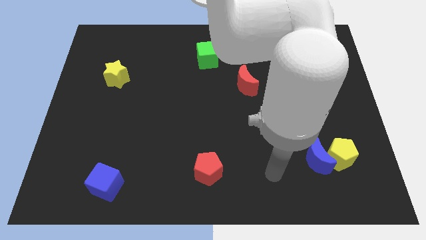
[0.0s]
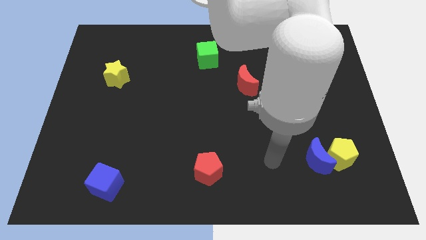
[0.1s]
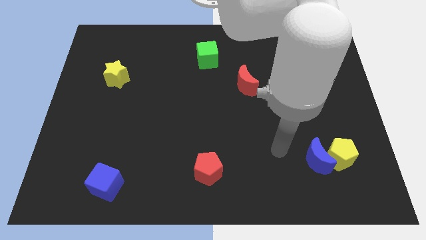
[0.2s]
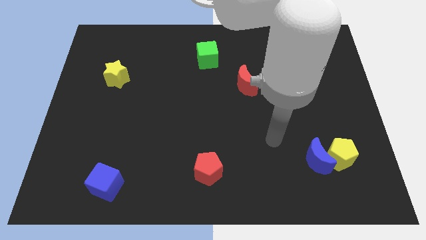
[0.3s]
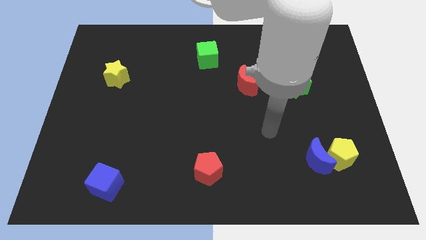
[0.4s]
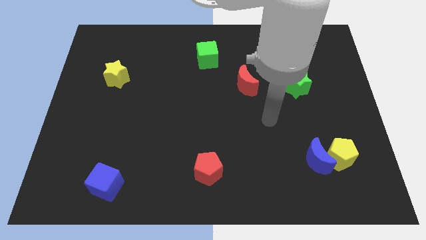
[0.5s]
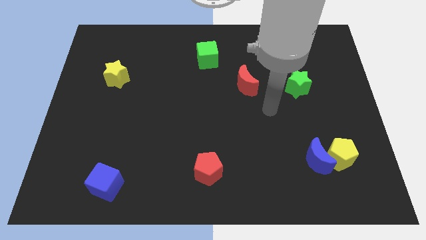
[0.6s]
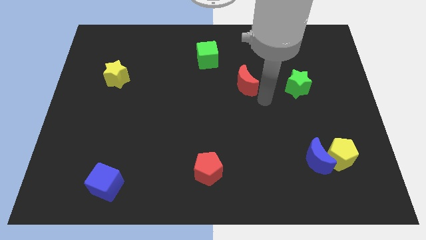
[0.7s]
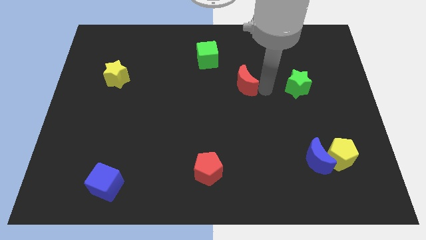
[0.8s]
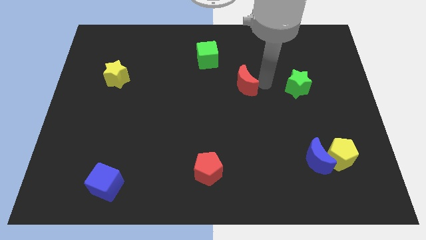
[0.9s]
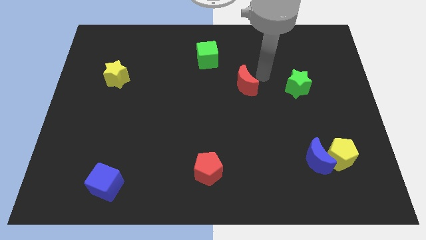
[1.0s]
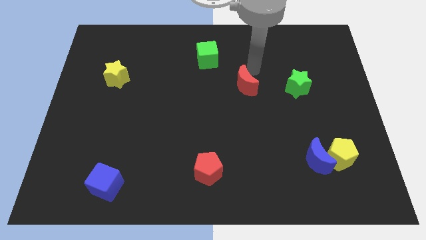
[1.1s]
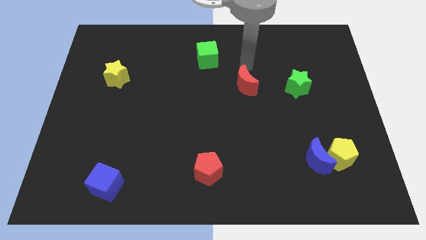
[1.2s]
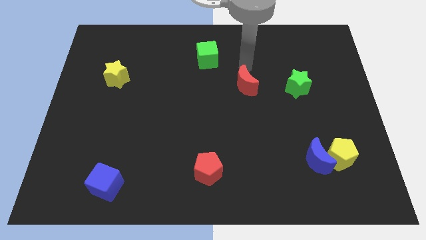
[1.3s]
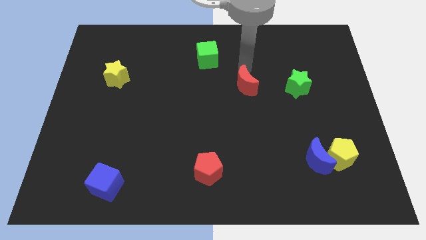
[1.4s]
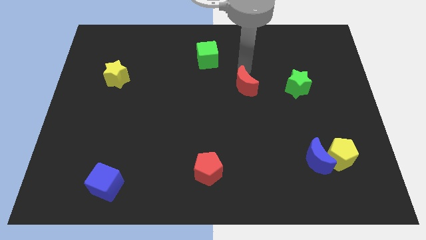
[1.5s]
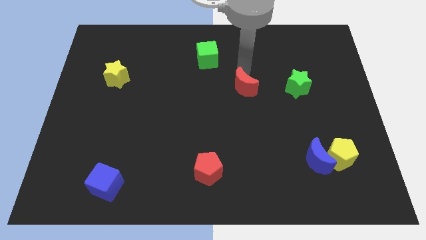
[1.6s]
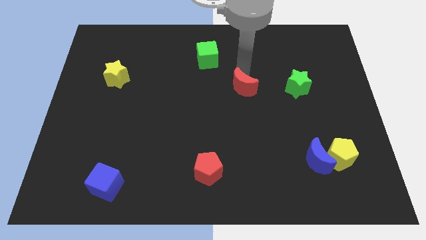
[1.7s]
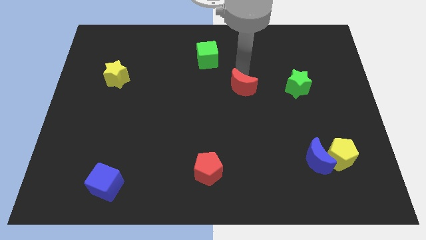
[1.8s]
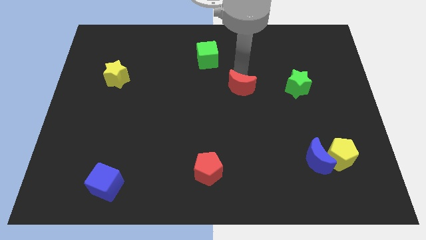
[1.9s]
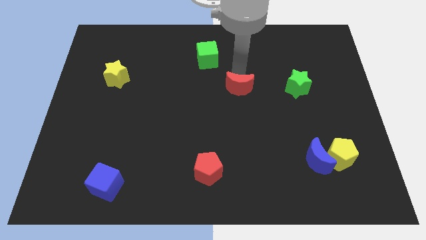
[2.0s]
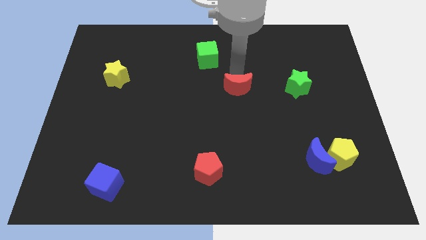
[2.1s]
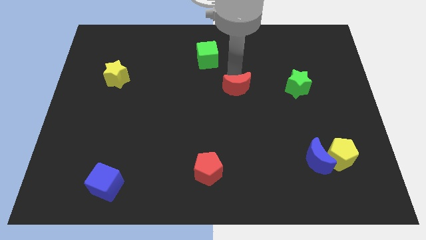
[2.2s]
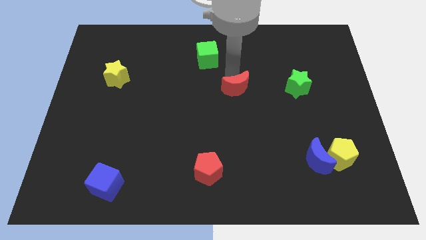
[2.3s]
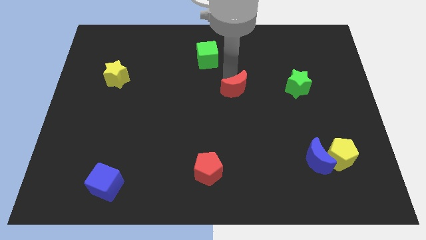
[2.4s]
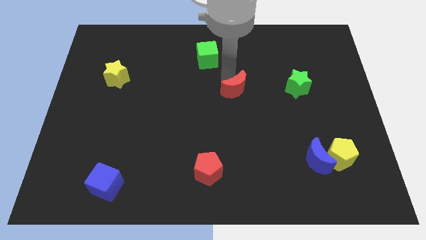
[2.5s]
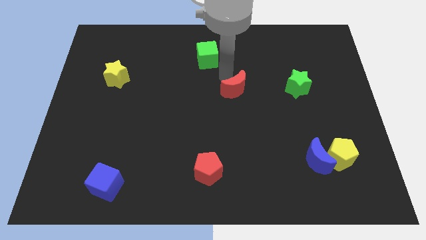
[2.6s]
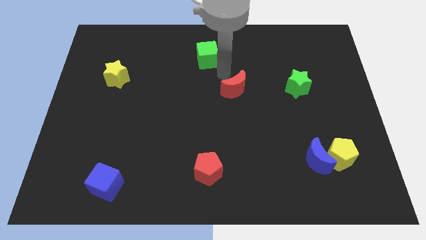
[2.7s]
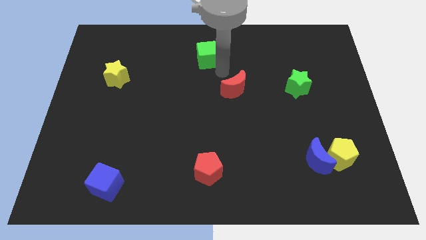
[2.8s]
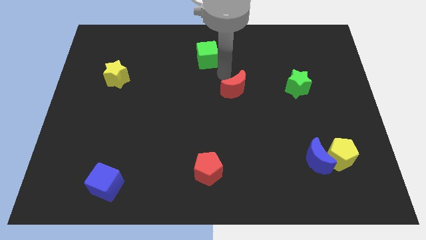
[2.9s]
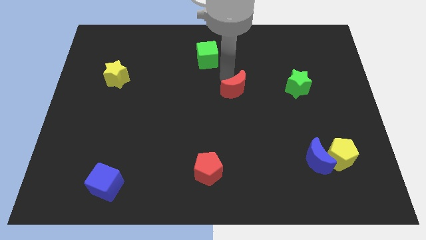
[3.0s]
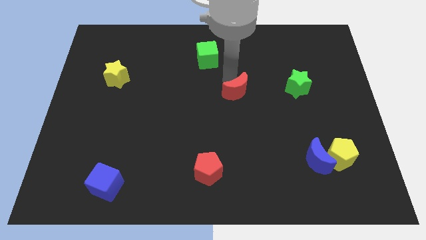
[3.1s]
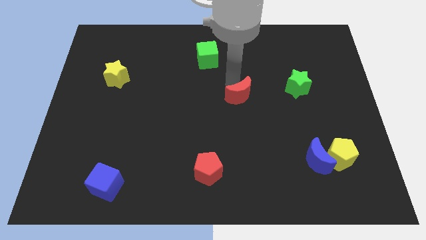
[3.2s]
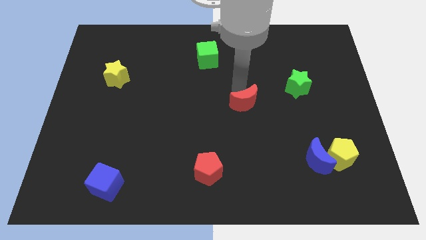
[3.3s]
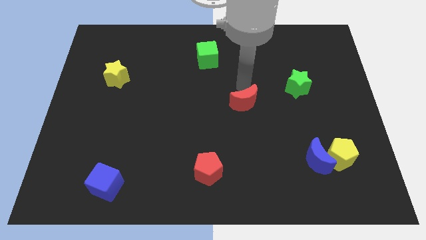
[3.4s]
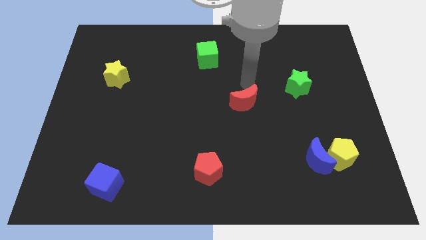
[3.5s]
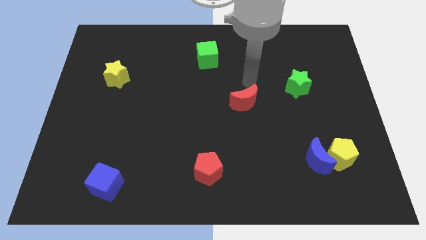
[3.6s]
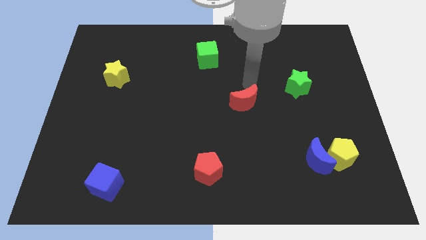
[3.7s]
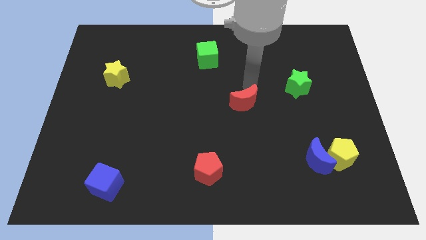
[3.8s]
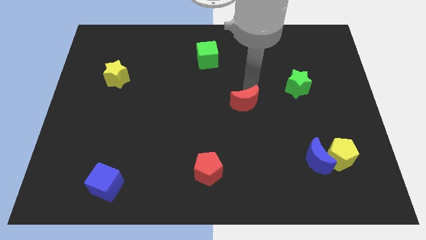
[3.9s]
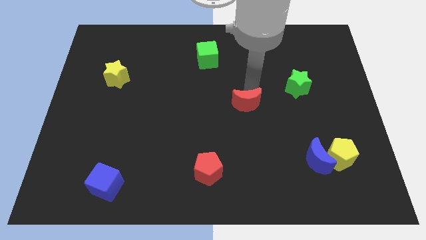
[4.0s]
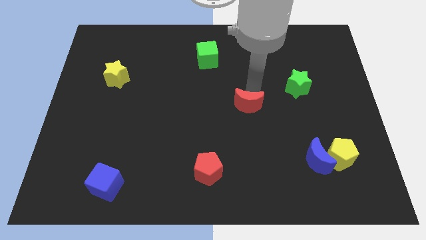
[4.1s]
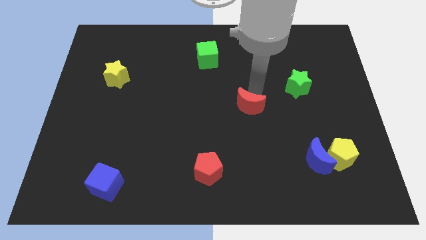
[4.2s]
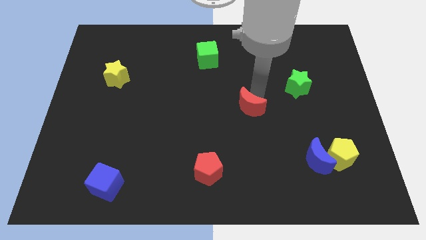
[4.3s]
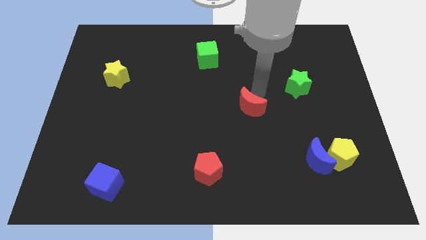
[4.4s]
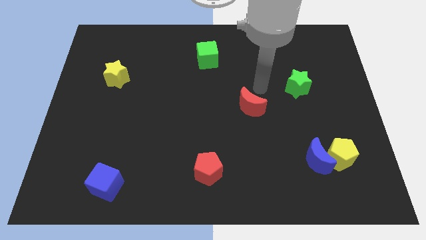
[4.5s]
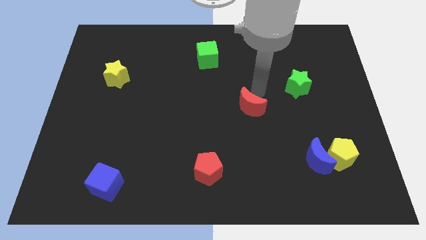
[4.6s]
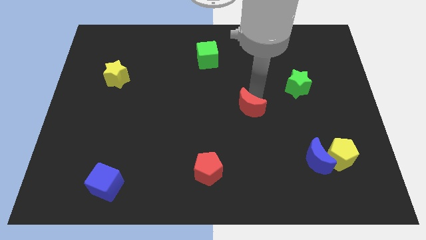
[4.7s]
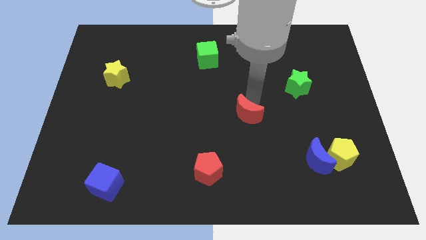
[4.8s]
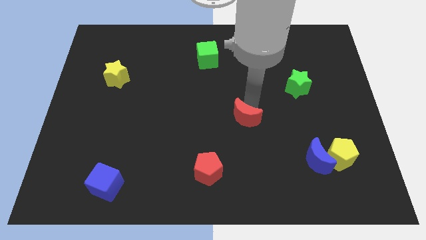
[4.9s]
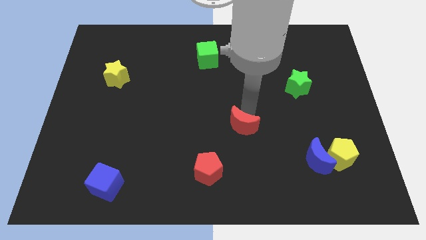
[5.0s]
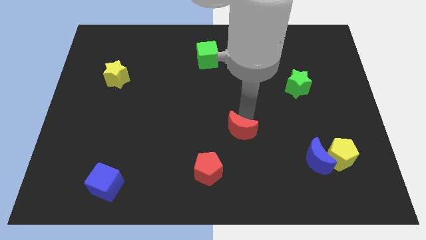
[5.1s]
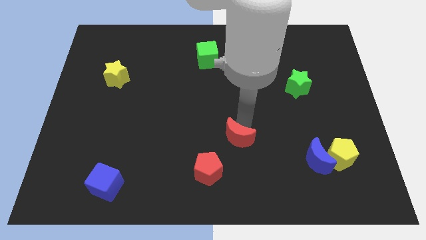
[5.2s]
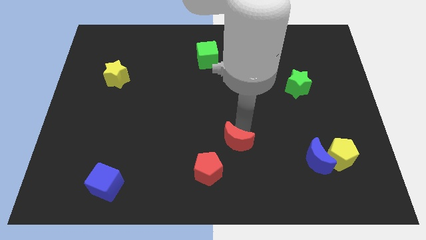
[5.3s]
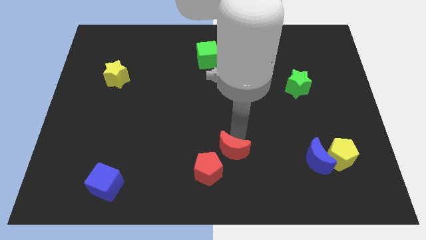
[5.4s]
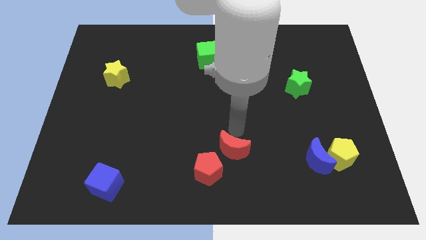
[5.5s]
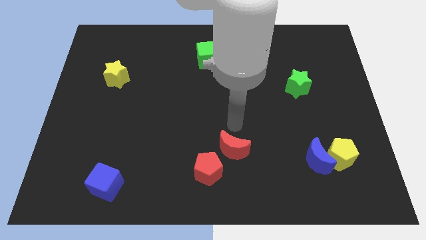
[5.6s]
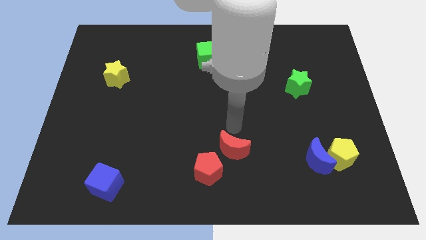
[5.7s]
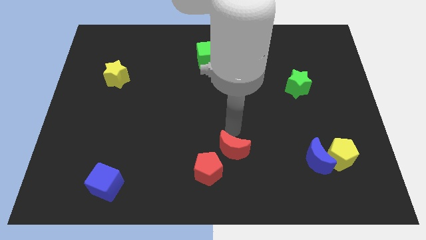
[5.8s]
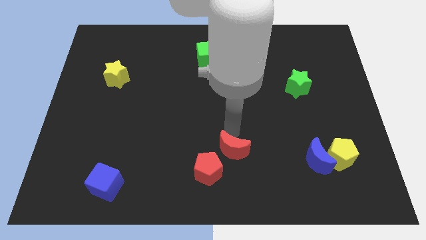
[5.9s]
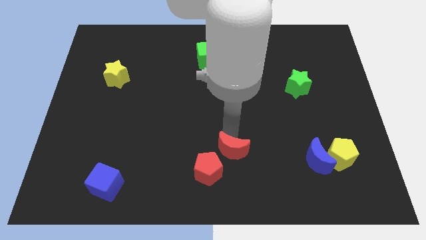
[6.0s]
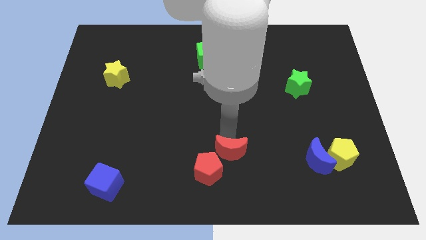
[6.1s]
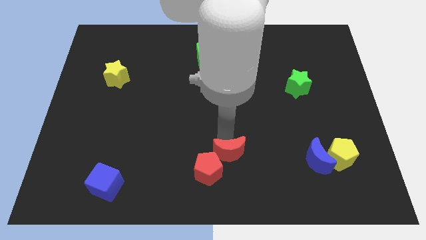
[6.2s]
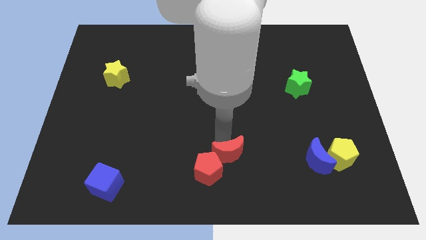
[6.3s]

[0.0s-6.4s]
slide the red moon to the bottom

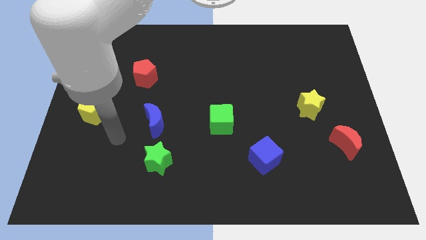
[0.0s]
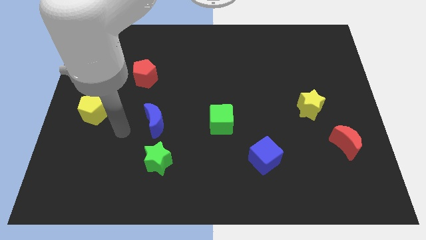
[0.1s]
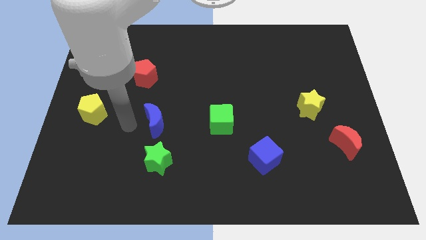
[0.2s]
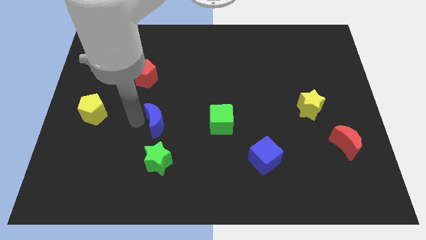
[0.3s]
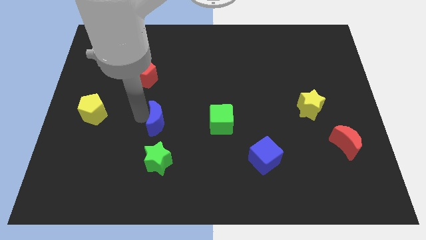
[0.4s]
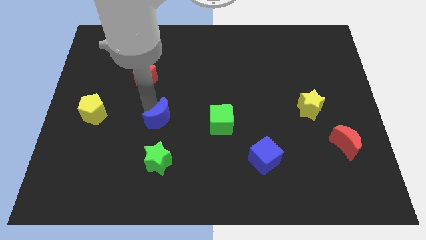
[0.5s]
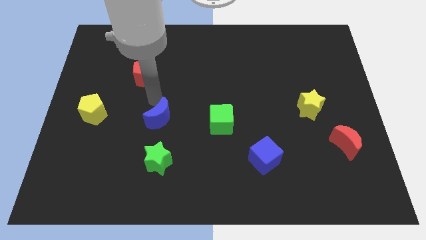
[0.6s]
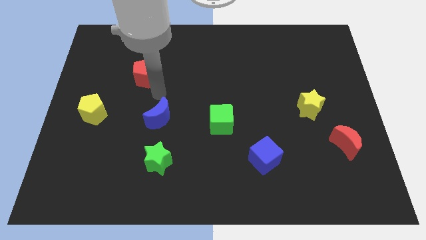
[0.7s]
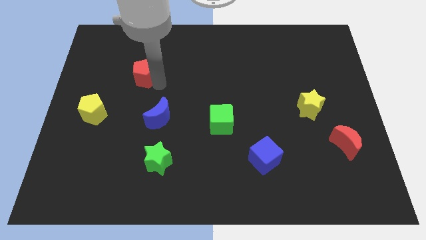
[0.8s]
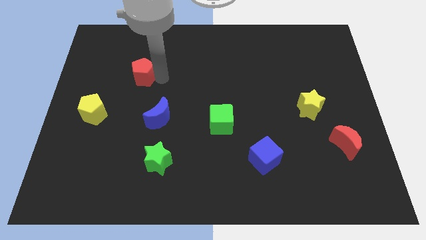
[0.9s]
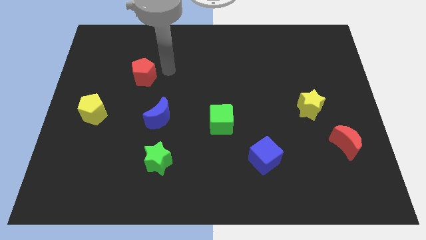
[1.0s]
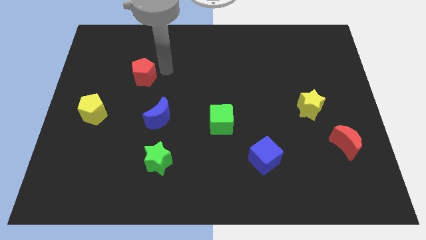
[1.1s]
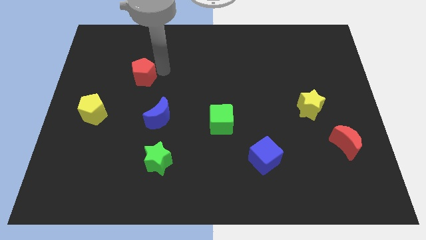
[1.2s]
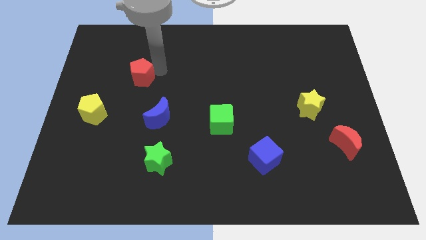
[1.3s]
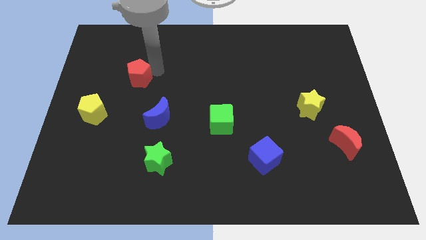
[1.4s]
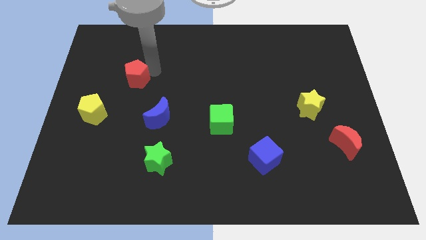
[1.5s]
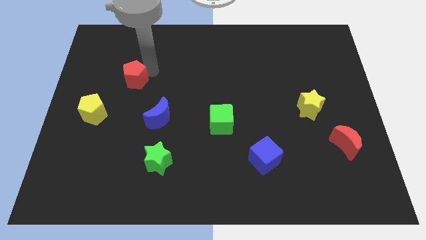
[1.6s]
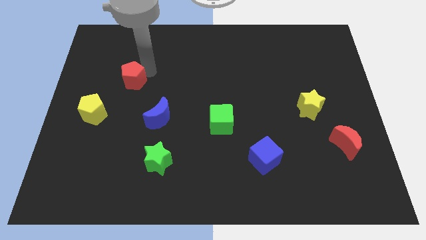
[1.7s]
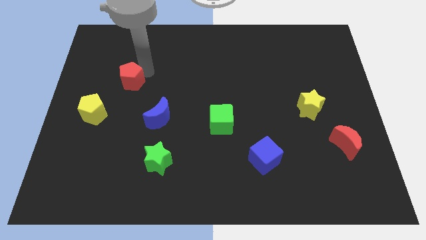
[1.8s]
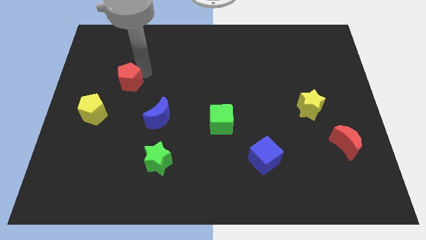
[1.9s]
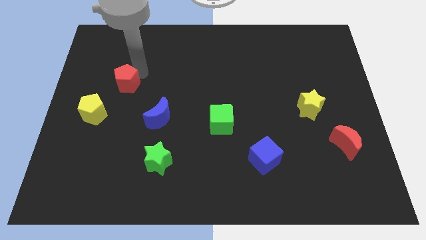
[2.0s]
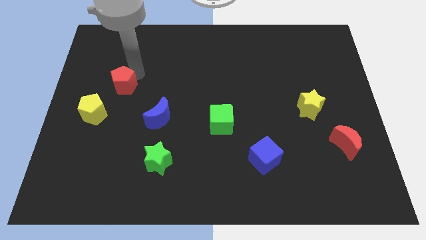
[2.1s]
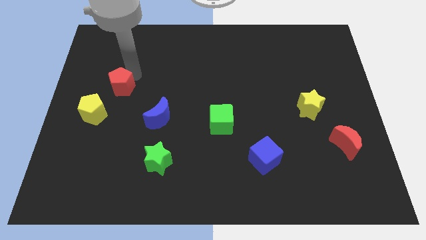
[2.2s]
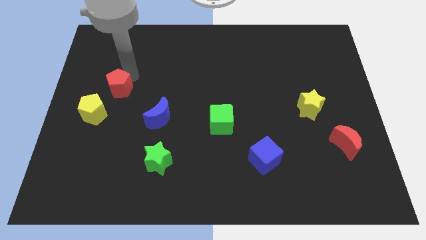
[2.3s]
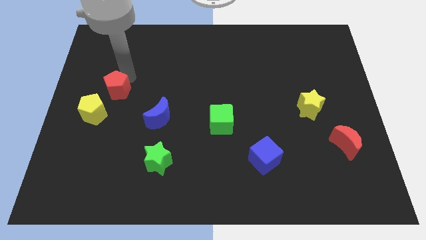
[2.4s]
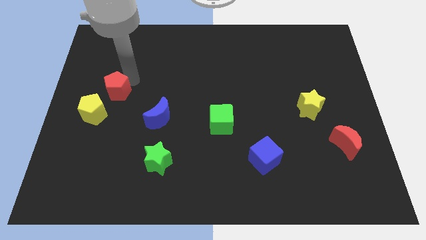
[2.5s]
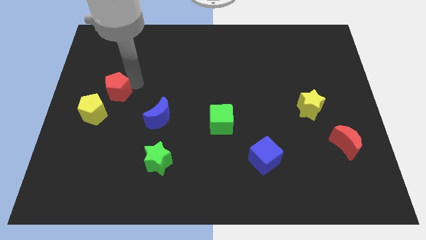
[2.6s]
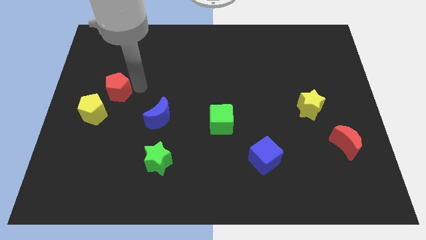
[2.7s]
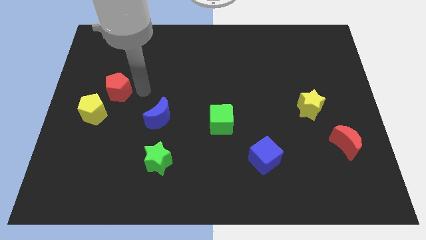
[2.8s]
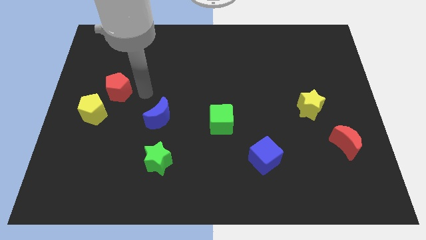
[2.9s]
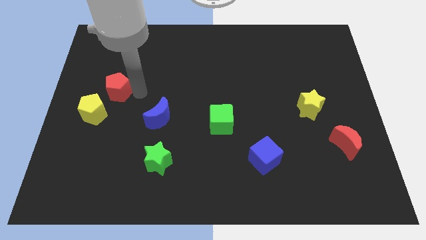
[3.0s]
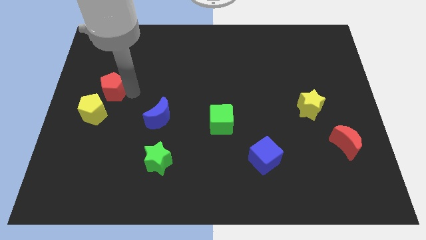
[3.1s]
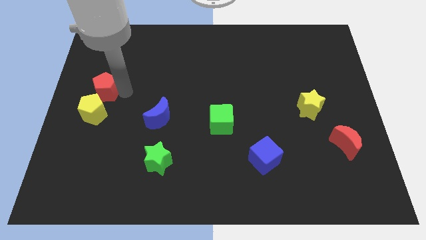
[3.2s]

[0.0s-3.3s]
slide the red pentagon to the left side
